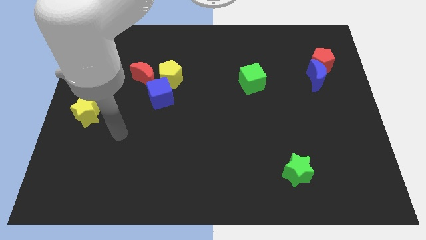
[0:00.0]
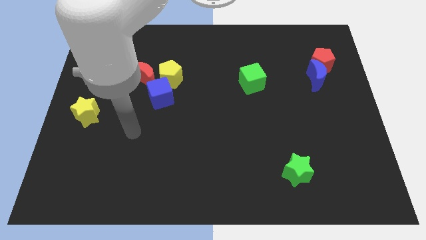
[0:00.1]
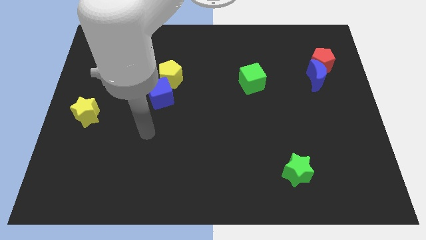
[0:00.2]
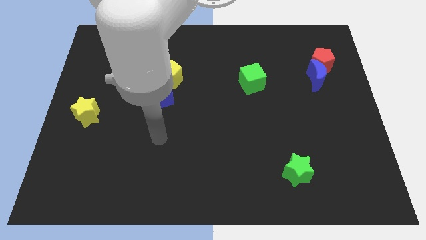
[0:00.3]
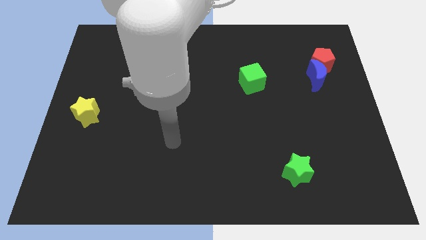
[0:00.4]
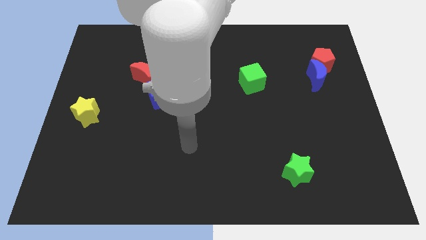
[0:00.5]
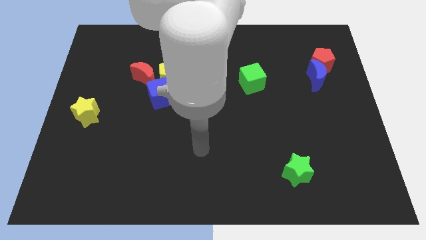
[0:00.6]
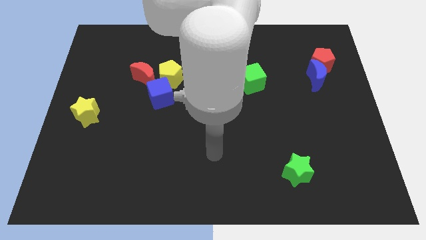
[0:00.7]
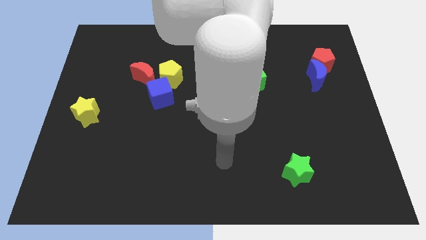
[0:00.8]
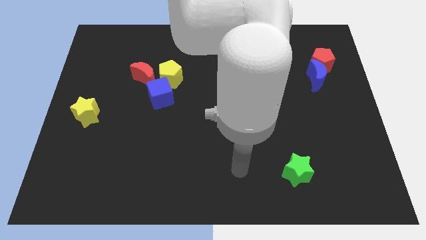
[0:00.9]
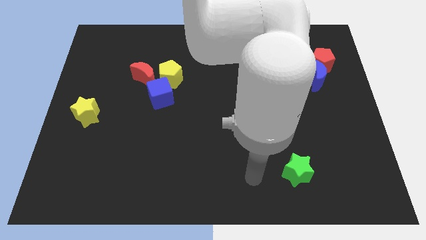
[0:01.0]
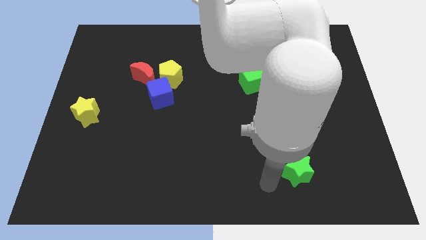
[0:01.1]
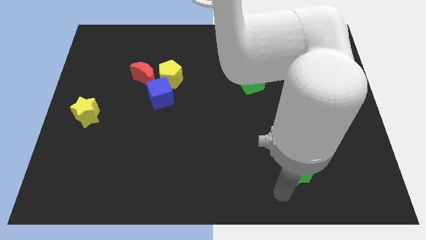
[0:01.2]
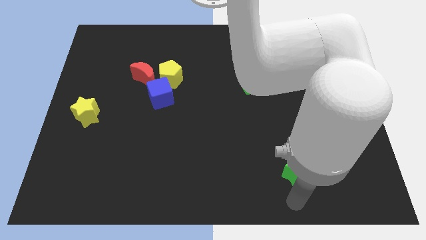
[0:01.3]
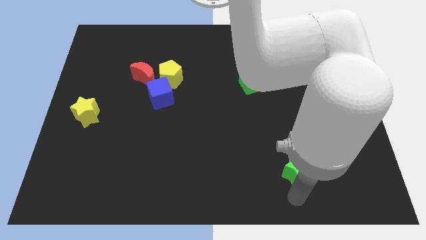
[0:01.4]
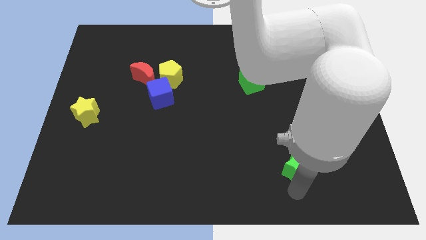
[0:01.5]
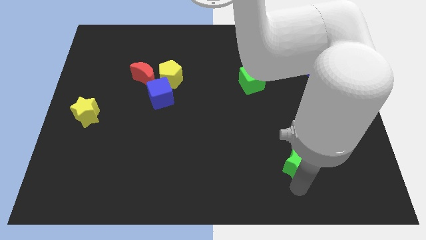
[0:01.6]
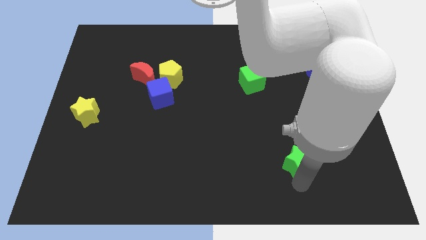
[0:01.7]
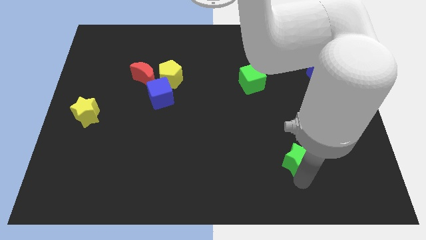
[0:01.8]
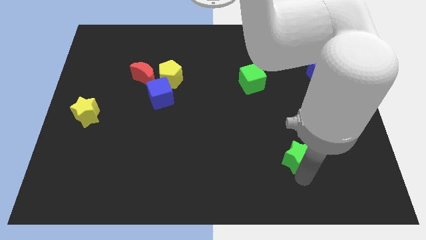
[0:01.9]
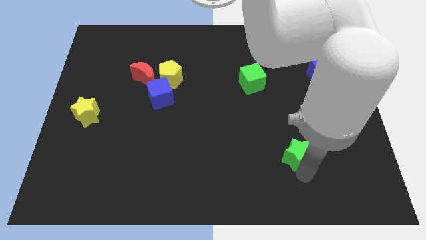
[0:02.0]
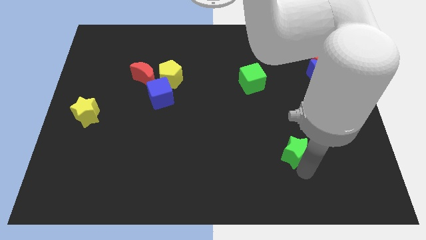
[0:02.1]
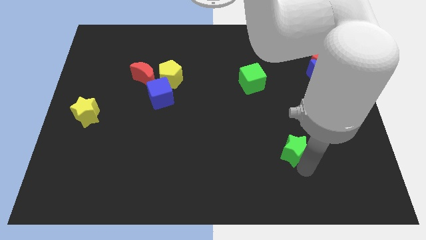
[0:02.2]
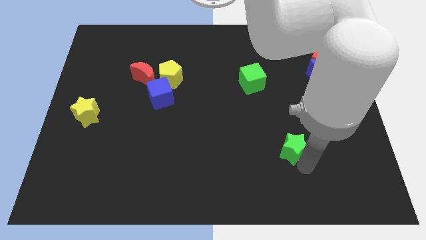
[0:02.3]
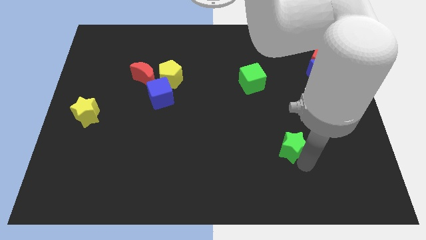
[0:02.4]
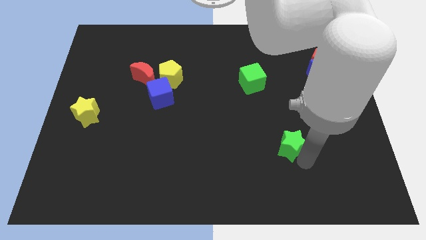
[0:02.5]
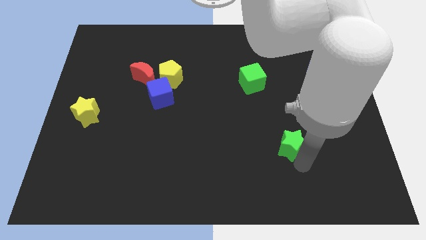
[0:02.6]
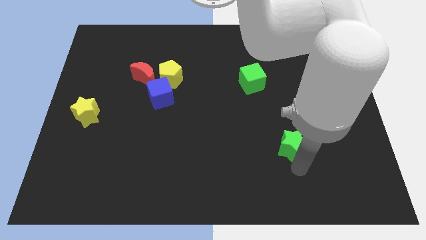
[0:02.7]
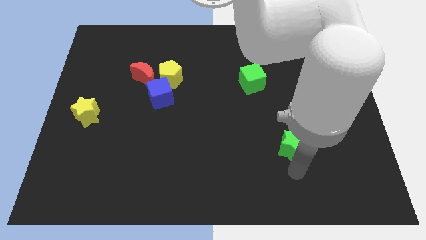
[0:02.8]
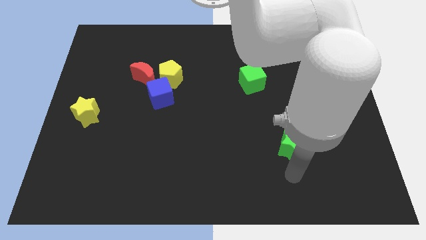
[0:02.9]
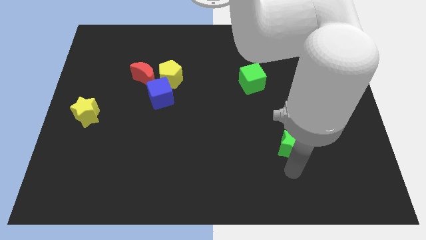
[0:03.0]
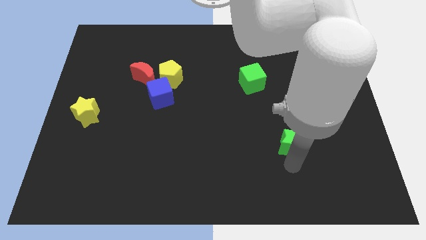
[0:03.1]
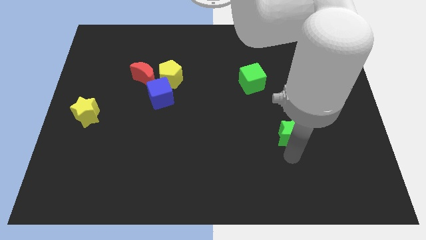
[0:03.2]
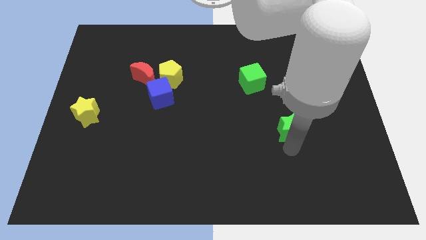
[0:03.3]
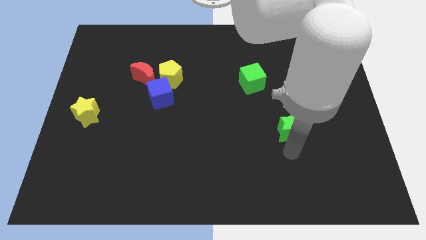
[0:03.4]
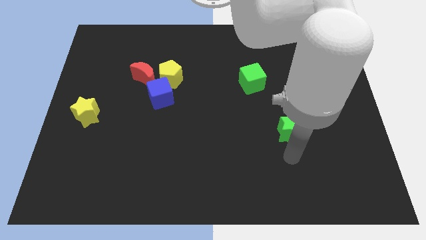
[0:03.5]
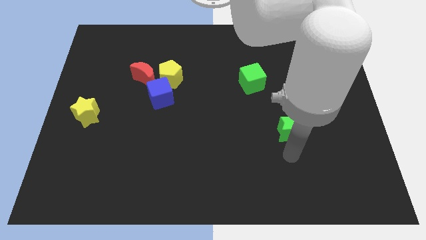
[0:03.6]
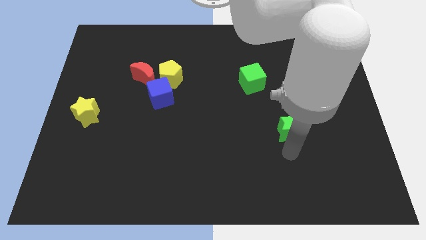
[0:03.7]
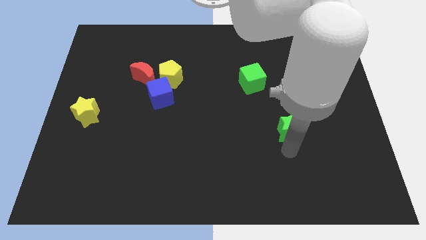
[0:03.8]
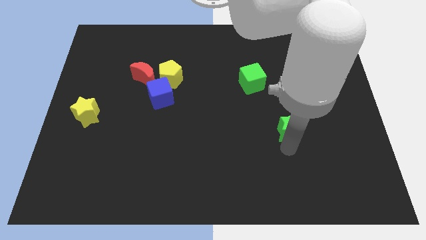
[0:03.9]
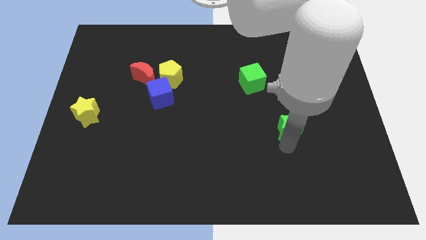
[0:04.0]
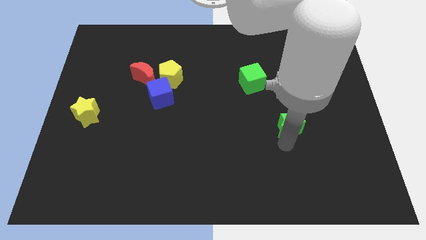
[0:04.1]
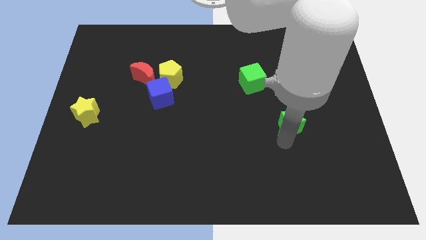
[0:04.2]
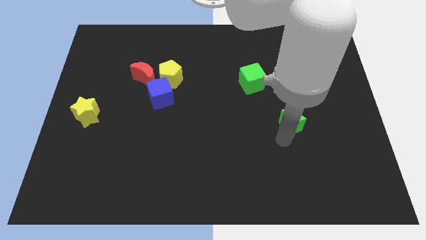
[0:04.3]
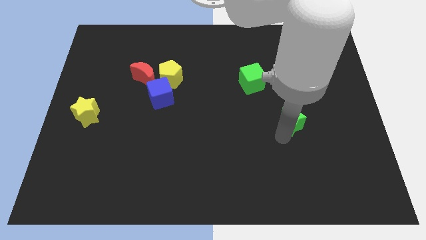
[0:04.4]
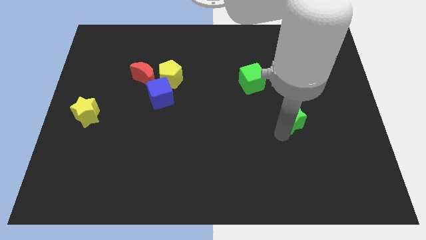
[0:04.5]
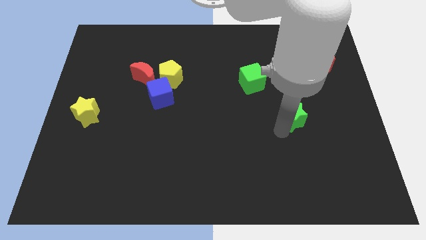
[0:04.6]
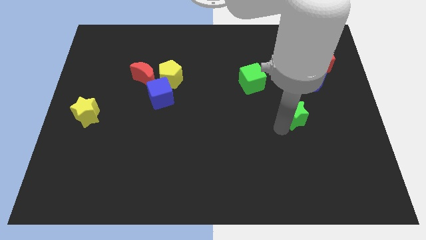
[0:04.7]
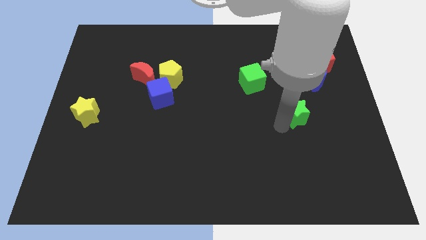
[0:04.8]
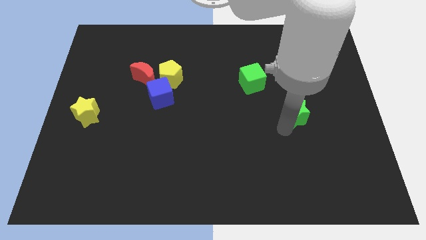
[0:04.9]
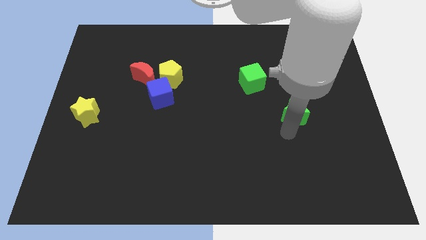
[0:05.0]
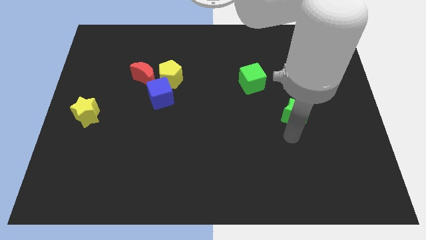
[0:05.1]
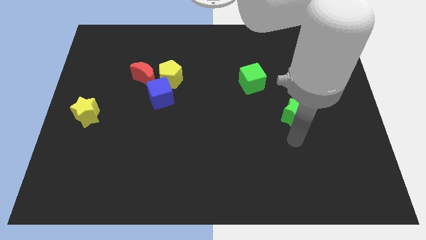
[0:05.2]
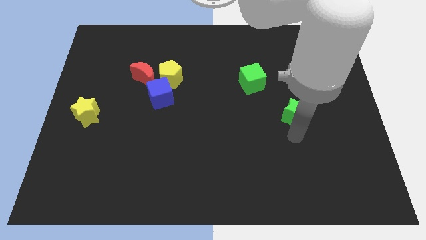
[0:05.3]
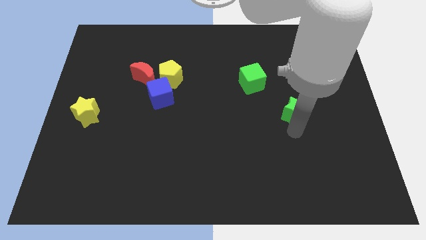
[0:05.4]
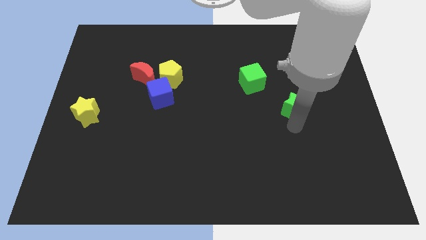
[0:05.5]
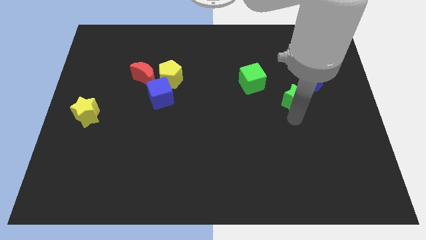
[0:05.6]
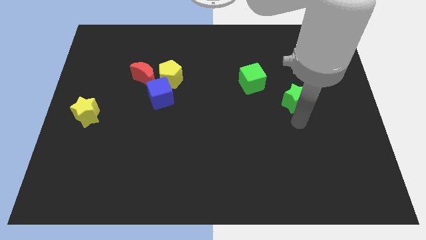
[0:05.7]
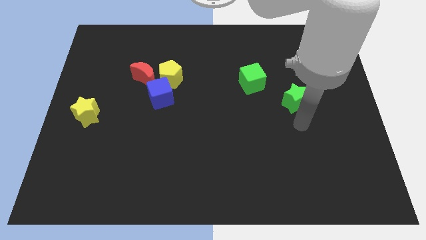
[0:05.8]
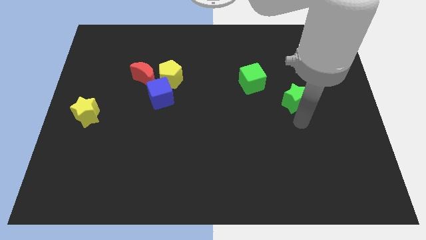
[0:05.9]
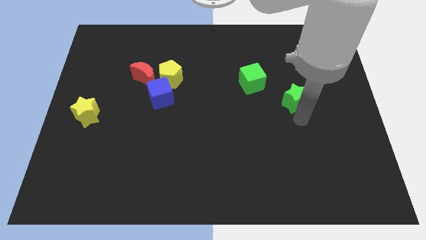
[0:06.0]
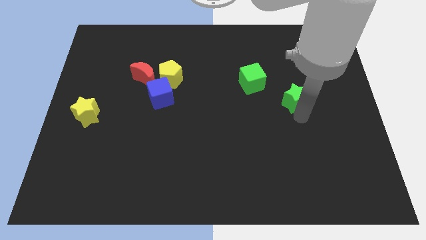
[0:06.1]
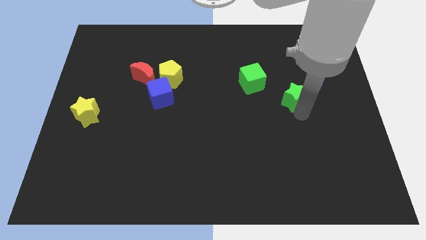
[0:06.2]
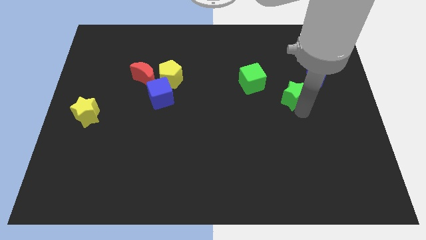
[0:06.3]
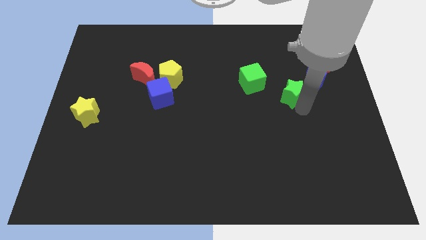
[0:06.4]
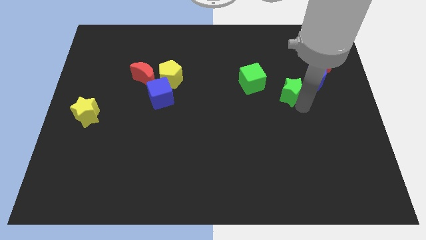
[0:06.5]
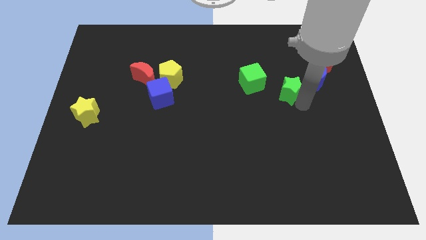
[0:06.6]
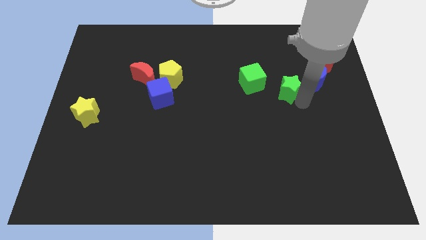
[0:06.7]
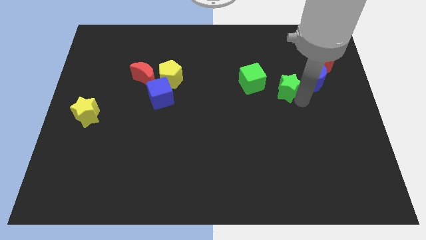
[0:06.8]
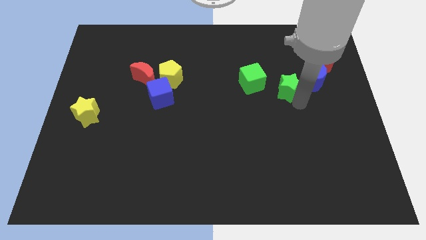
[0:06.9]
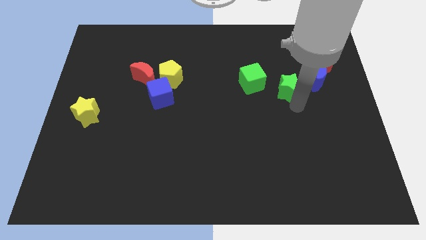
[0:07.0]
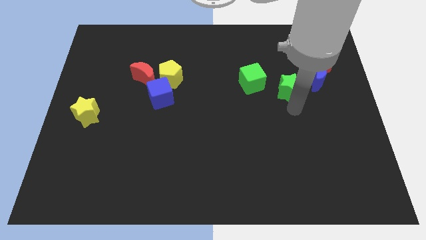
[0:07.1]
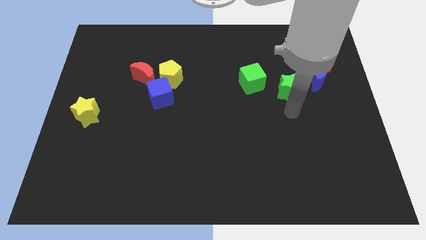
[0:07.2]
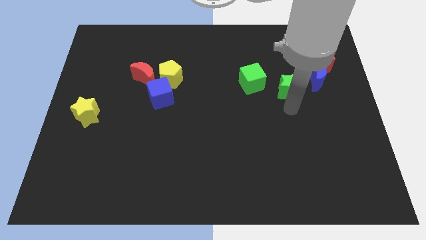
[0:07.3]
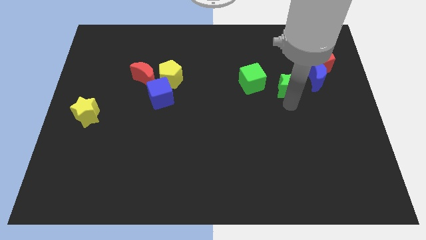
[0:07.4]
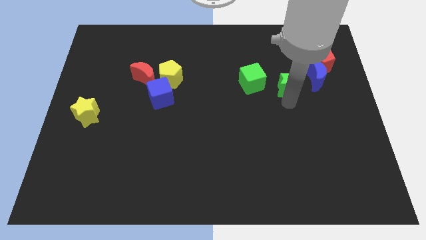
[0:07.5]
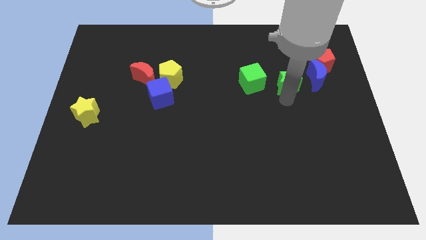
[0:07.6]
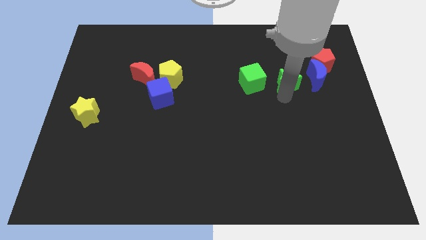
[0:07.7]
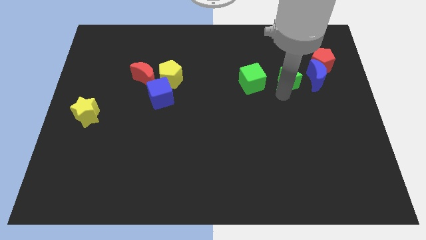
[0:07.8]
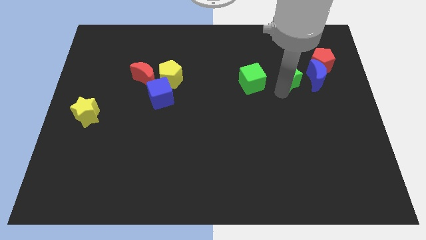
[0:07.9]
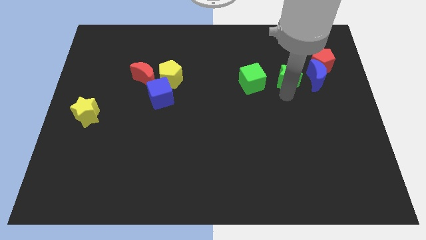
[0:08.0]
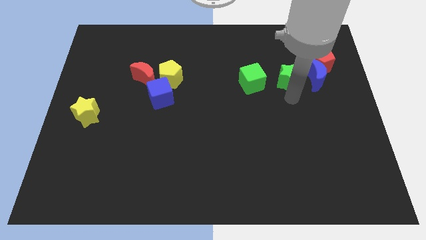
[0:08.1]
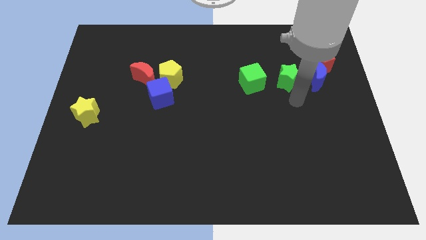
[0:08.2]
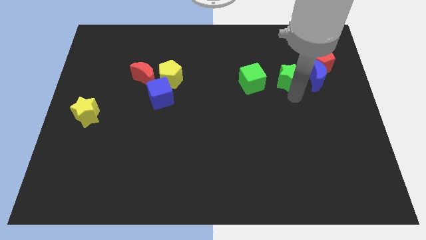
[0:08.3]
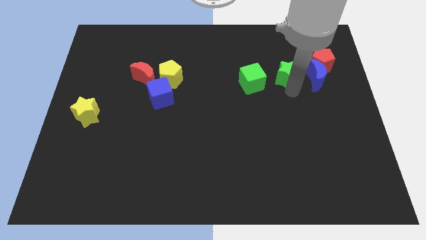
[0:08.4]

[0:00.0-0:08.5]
slide the green star left of the red pentagon
